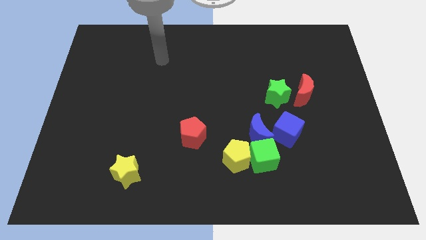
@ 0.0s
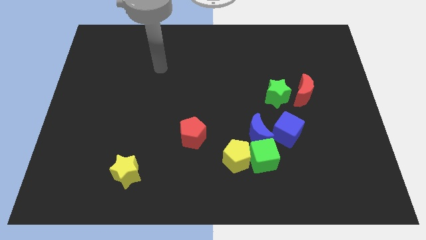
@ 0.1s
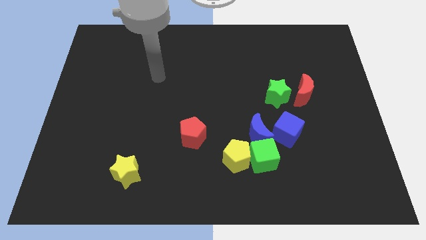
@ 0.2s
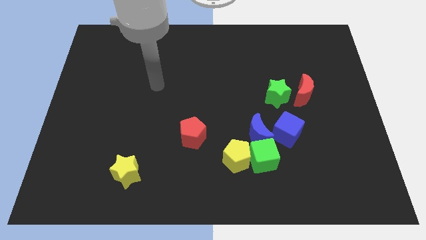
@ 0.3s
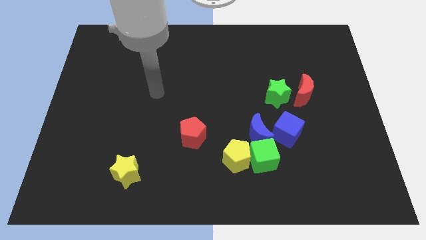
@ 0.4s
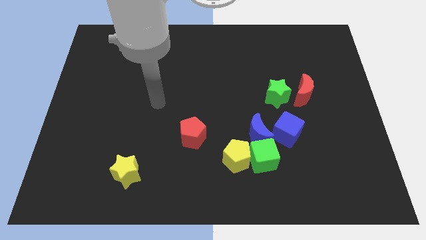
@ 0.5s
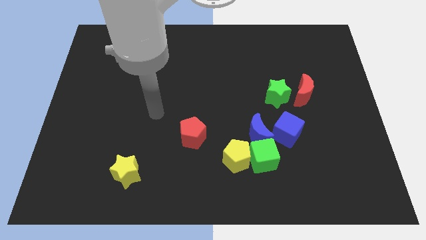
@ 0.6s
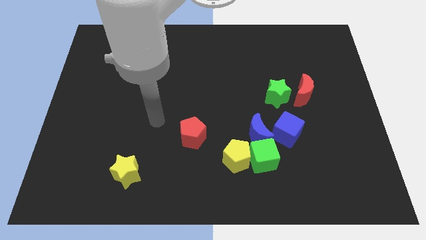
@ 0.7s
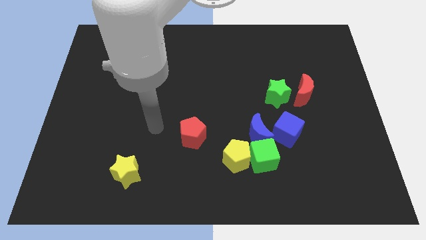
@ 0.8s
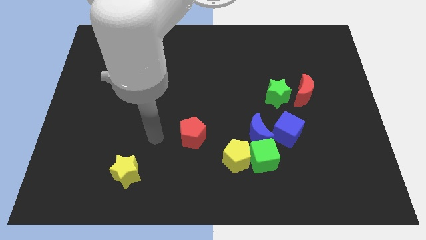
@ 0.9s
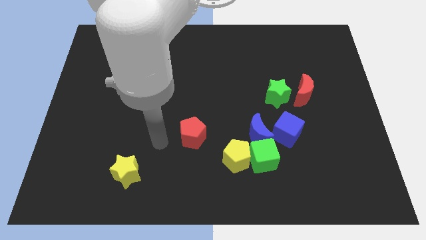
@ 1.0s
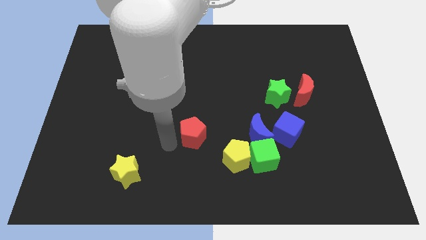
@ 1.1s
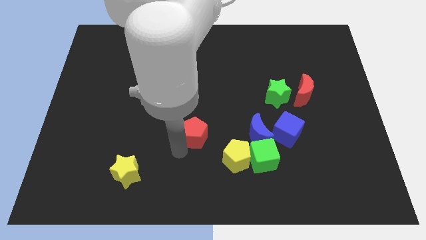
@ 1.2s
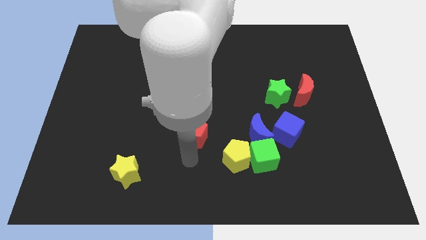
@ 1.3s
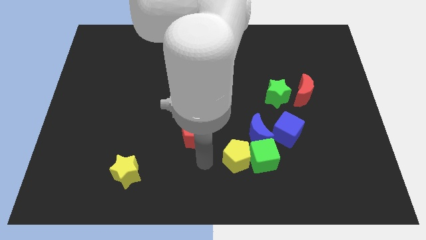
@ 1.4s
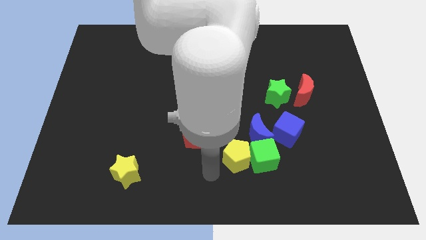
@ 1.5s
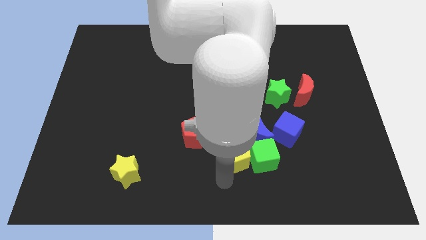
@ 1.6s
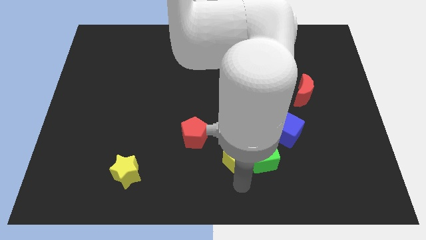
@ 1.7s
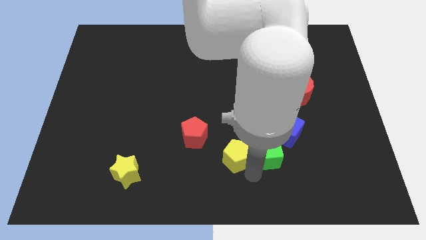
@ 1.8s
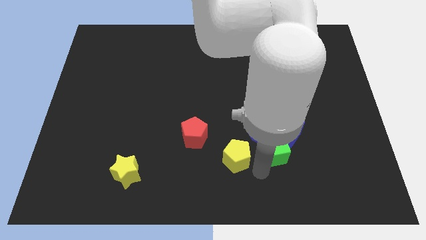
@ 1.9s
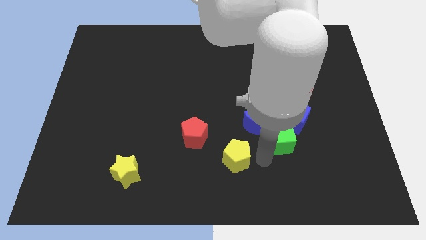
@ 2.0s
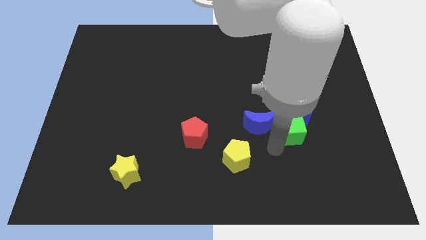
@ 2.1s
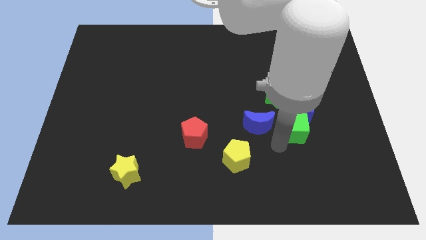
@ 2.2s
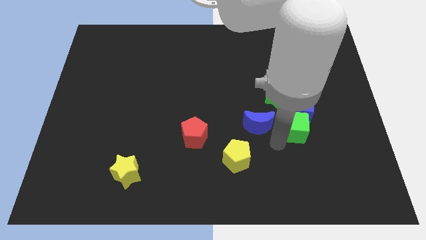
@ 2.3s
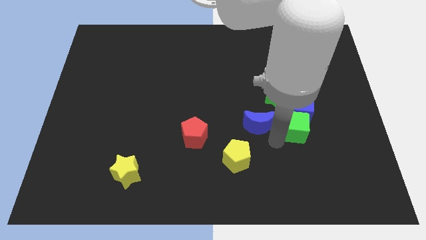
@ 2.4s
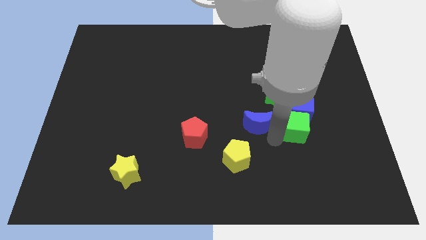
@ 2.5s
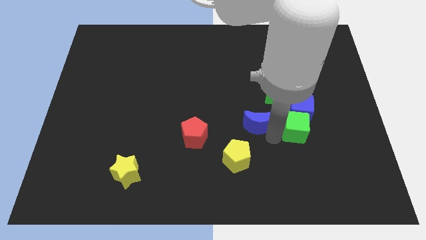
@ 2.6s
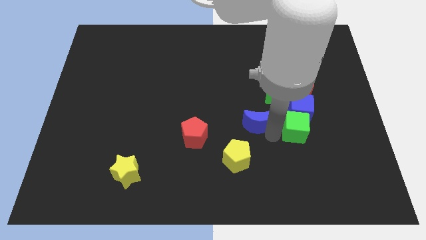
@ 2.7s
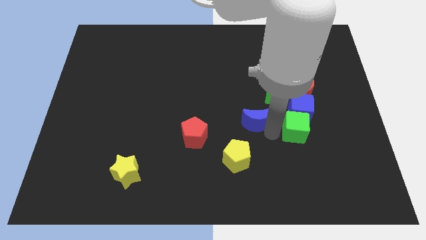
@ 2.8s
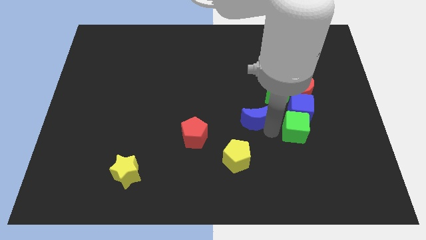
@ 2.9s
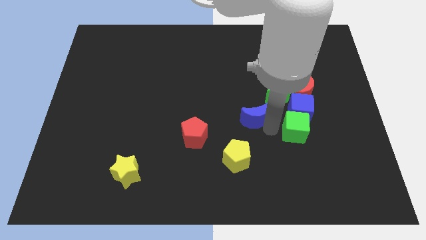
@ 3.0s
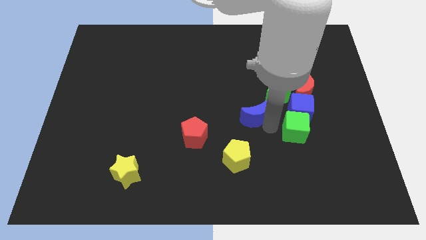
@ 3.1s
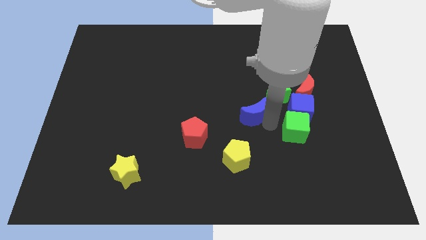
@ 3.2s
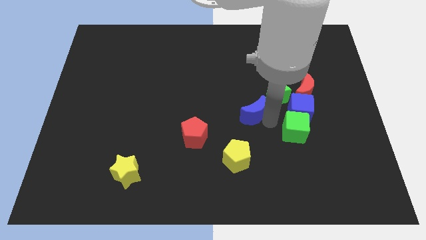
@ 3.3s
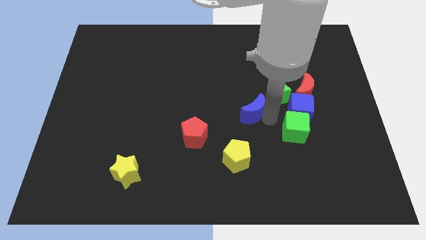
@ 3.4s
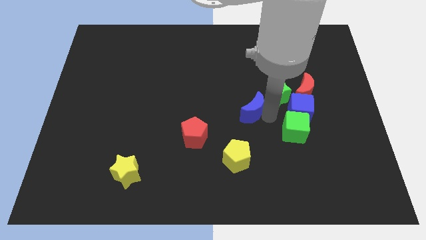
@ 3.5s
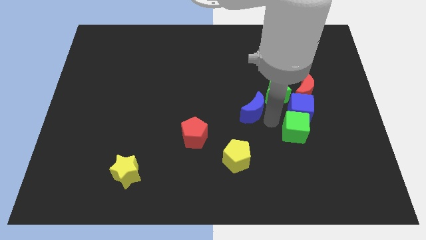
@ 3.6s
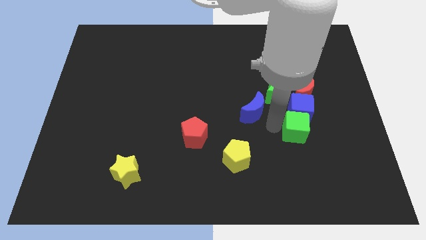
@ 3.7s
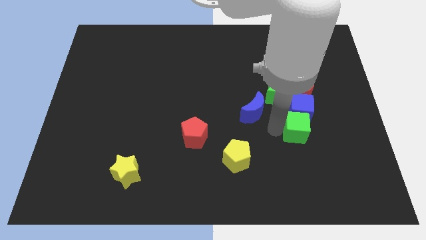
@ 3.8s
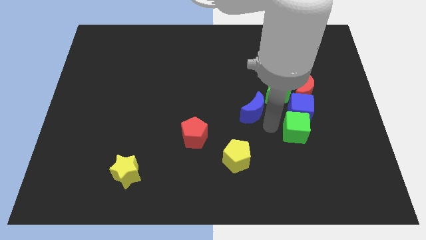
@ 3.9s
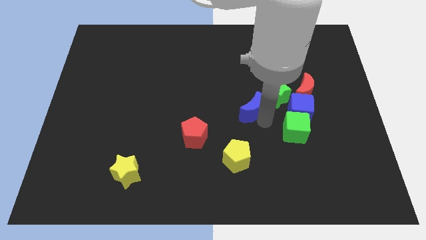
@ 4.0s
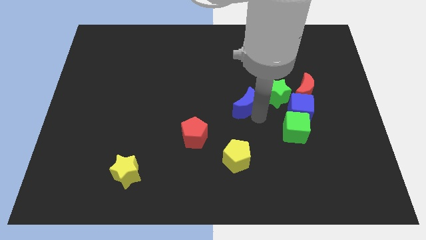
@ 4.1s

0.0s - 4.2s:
slightly move the blue moon upwards

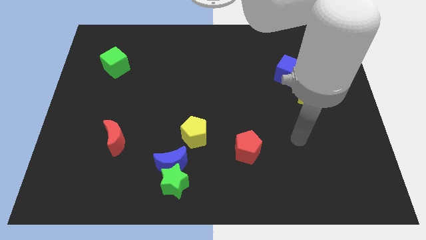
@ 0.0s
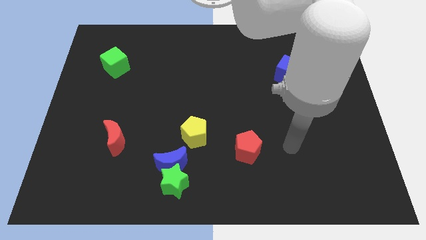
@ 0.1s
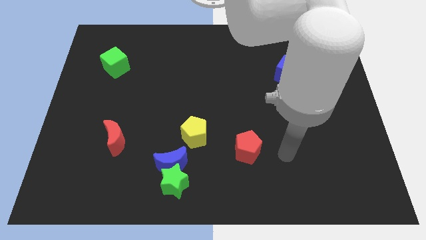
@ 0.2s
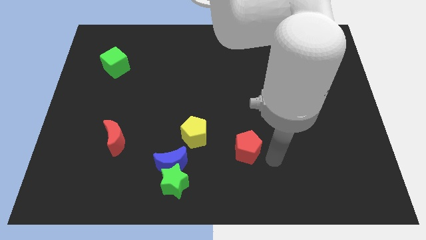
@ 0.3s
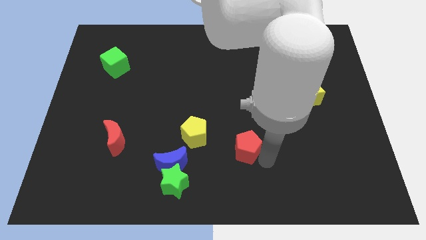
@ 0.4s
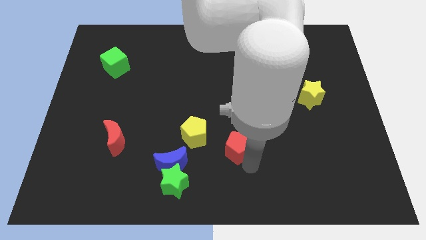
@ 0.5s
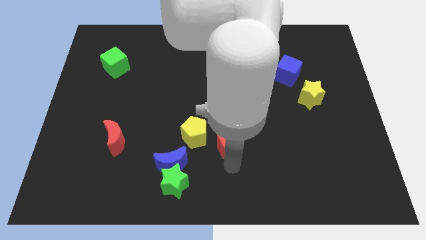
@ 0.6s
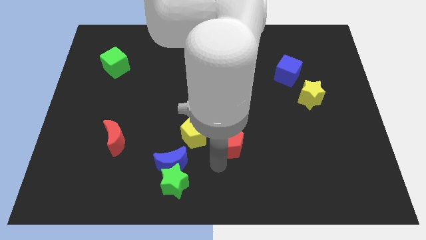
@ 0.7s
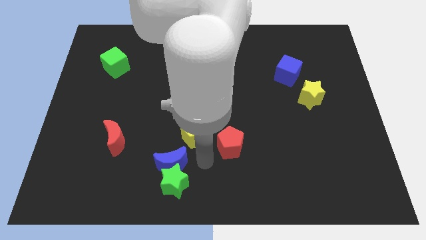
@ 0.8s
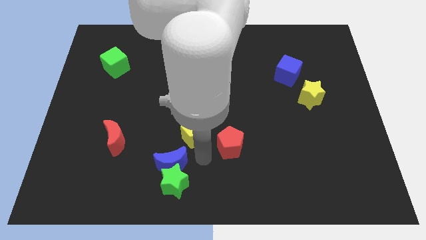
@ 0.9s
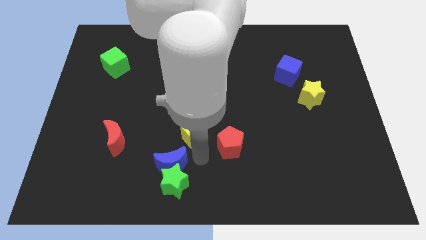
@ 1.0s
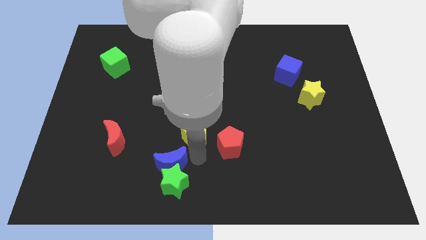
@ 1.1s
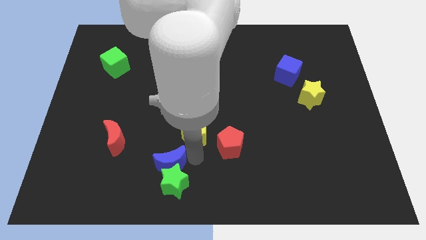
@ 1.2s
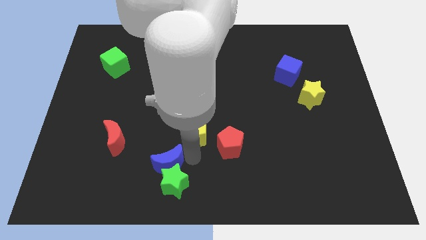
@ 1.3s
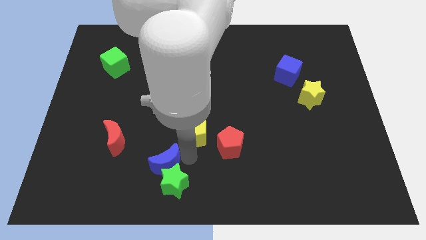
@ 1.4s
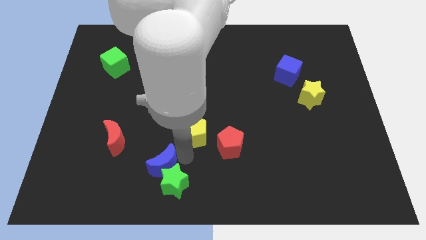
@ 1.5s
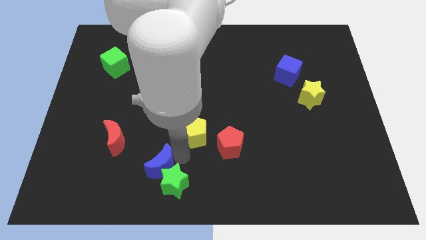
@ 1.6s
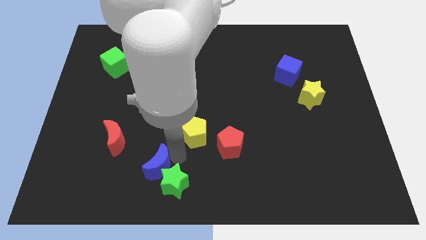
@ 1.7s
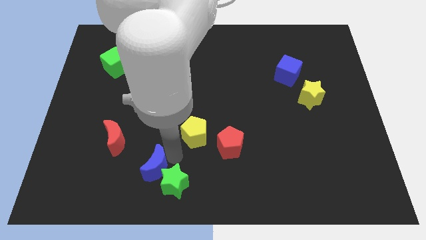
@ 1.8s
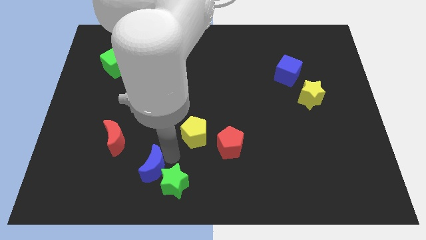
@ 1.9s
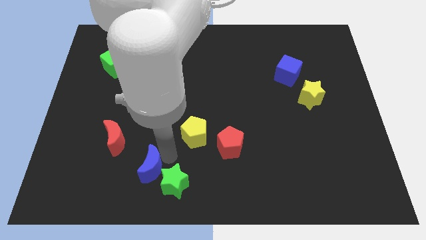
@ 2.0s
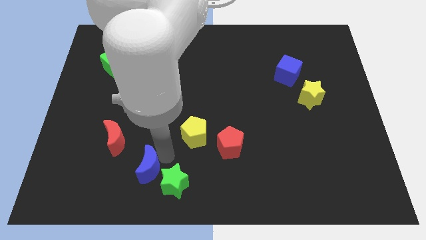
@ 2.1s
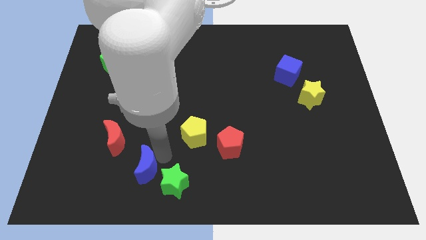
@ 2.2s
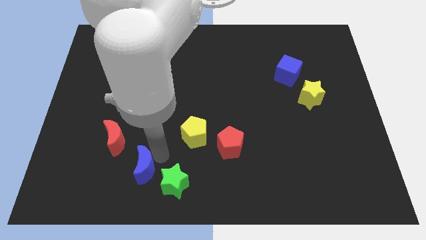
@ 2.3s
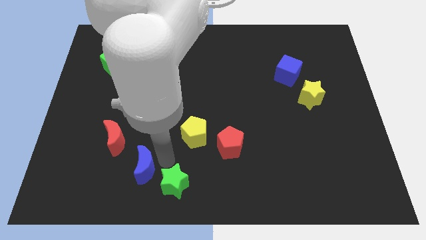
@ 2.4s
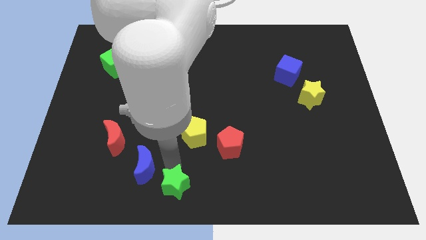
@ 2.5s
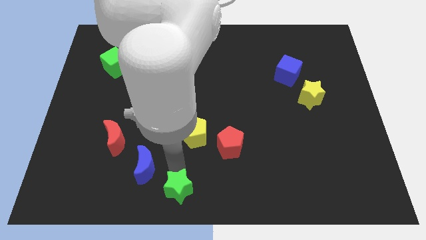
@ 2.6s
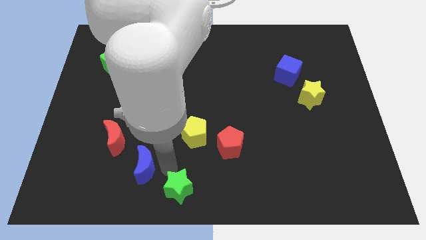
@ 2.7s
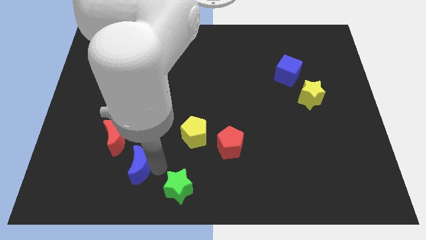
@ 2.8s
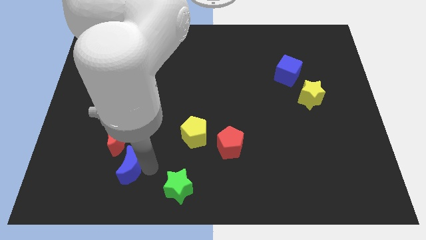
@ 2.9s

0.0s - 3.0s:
push the blue moon to the left slightly

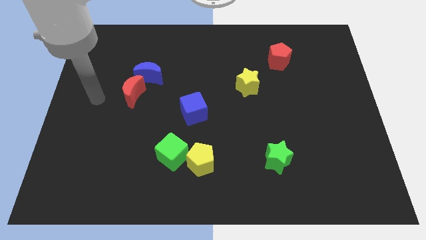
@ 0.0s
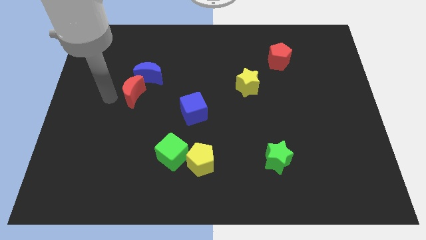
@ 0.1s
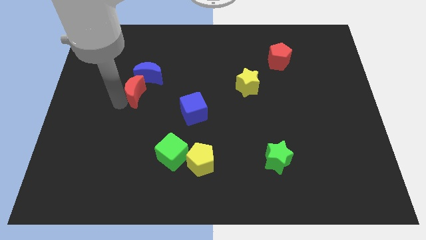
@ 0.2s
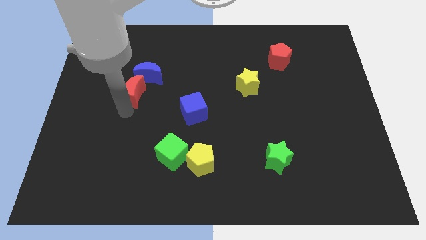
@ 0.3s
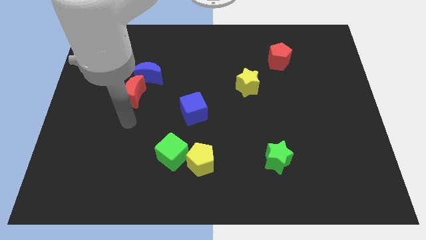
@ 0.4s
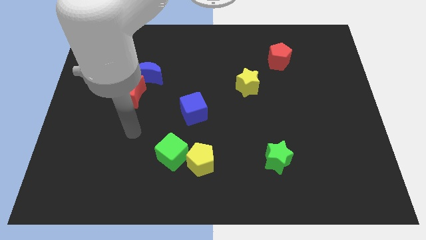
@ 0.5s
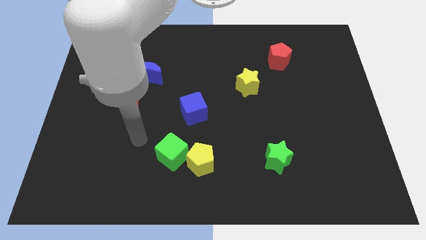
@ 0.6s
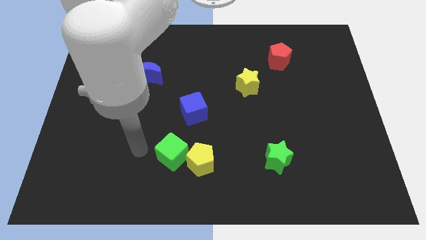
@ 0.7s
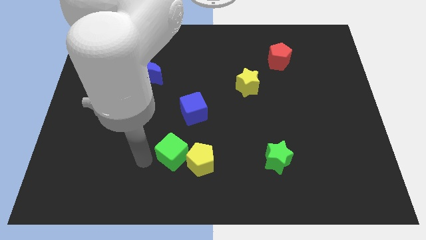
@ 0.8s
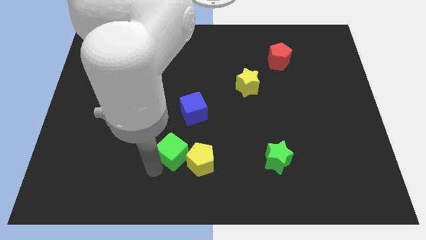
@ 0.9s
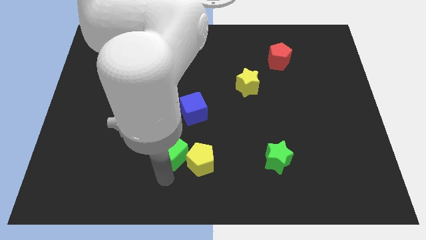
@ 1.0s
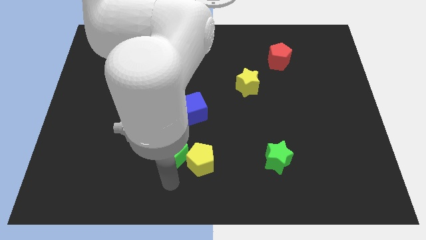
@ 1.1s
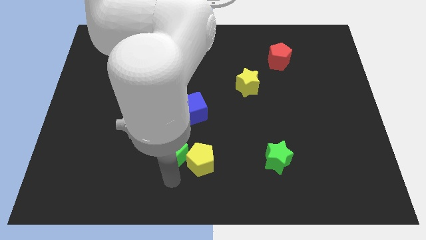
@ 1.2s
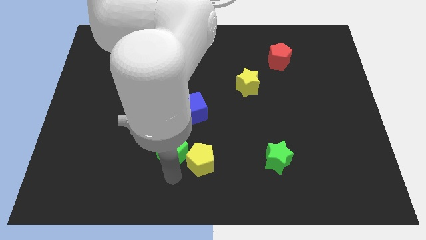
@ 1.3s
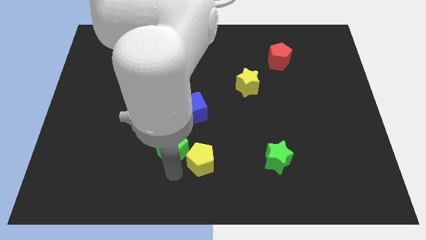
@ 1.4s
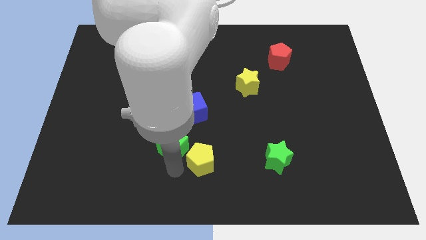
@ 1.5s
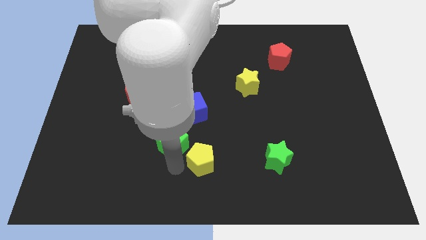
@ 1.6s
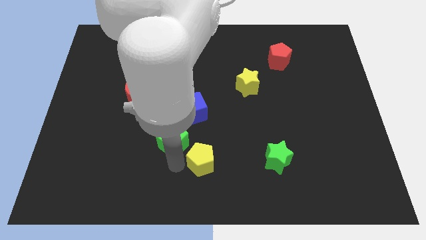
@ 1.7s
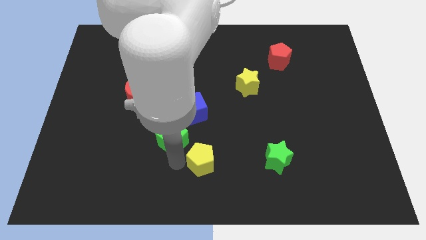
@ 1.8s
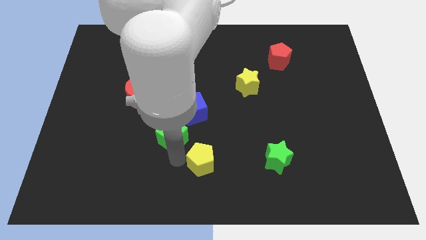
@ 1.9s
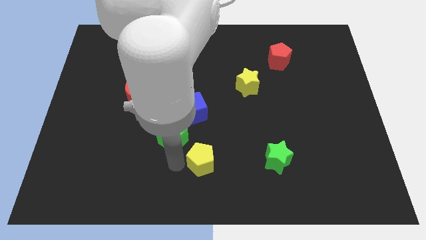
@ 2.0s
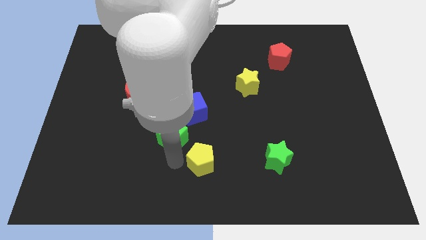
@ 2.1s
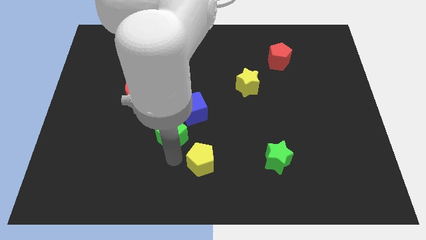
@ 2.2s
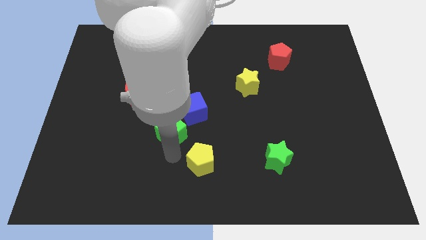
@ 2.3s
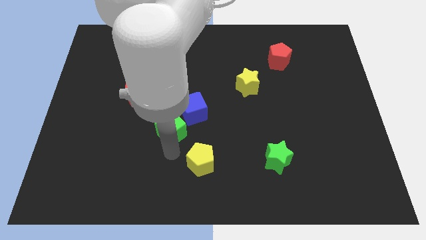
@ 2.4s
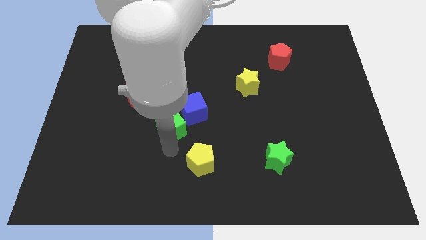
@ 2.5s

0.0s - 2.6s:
slightly push the green cube up
